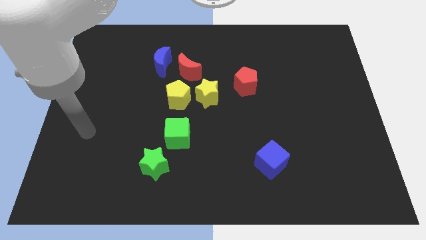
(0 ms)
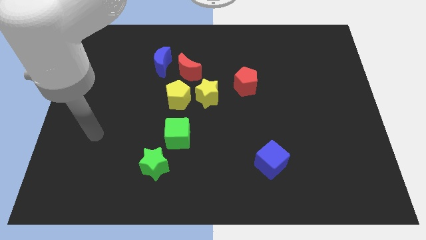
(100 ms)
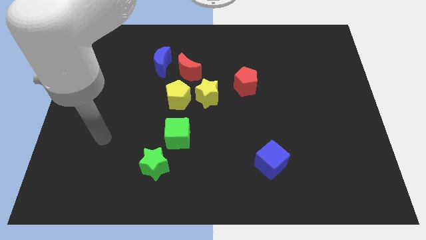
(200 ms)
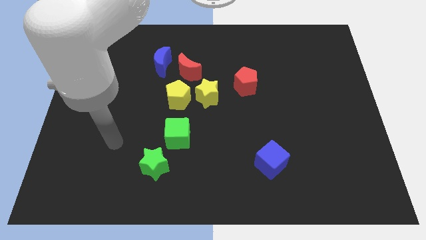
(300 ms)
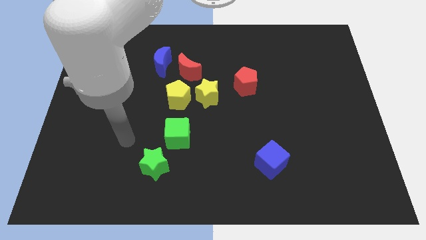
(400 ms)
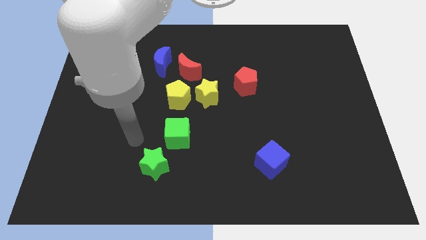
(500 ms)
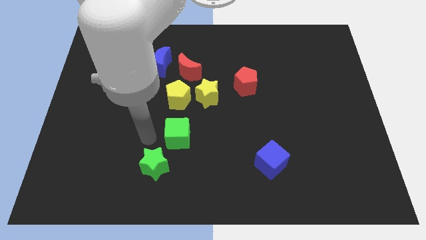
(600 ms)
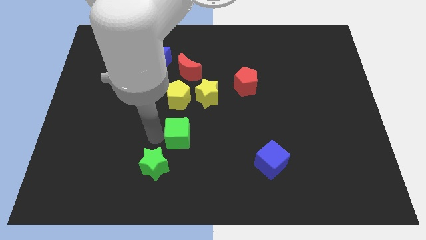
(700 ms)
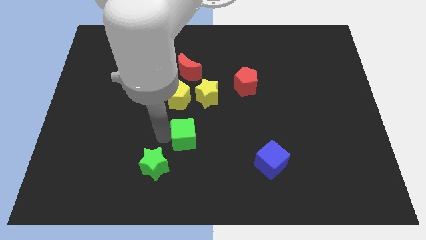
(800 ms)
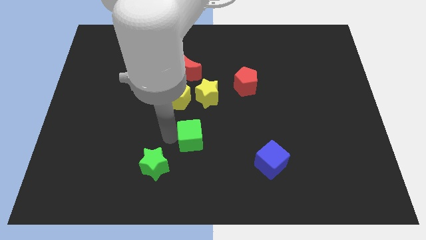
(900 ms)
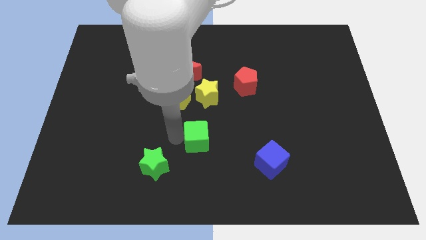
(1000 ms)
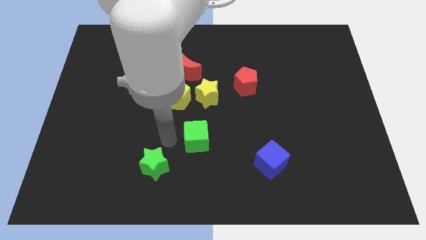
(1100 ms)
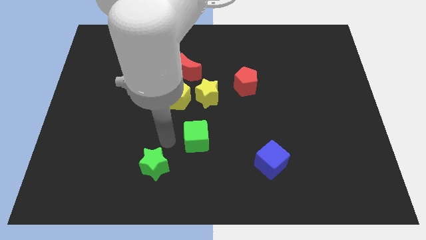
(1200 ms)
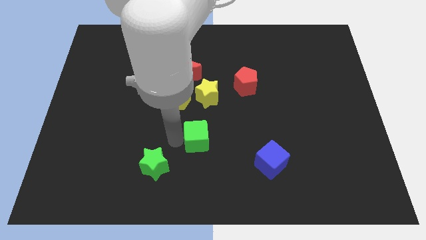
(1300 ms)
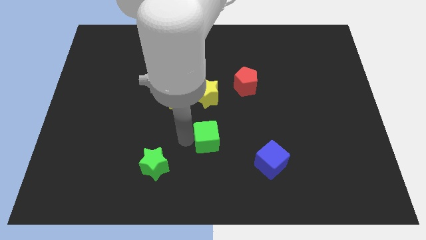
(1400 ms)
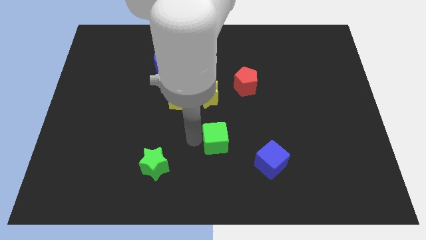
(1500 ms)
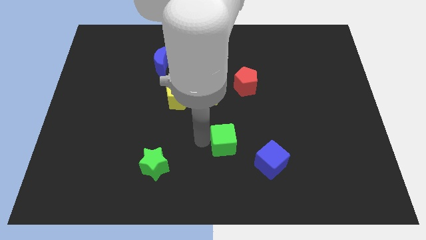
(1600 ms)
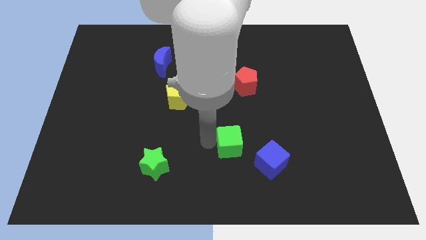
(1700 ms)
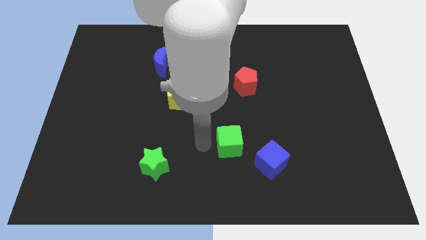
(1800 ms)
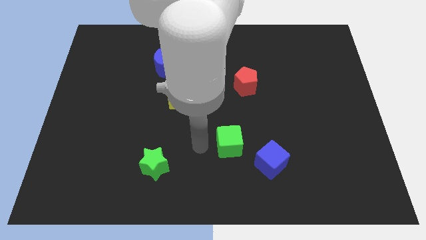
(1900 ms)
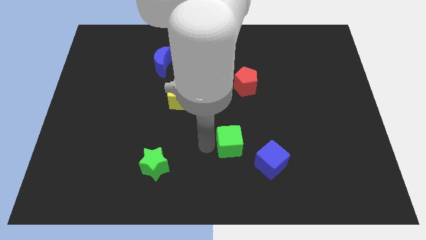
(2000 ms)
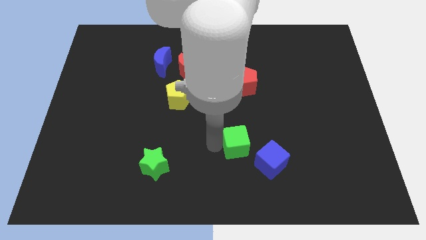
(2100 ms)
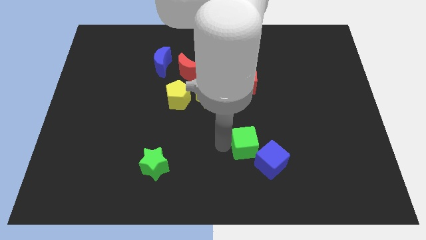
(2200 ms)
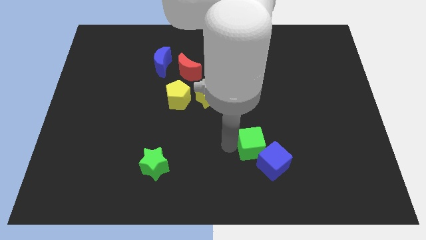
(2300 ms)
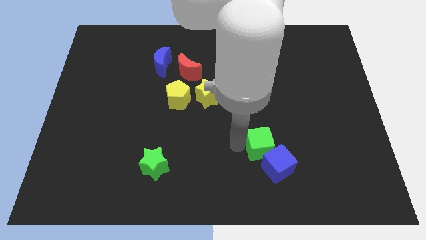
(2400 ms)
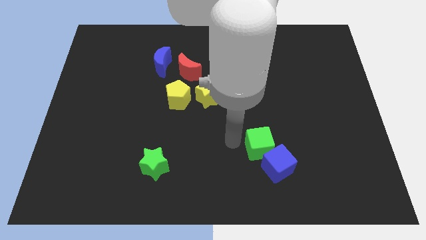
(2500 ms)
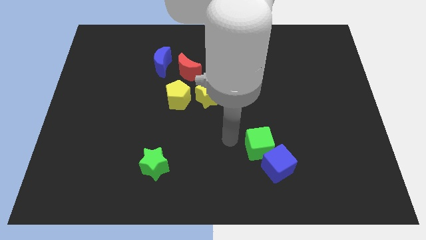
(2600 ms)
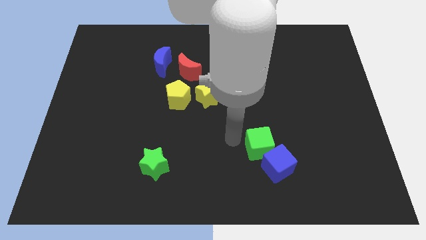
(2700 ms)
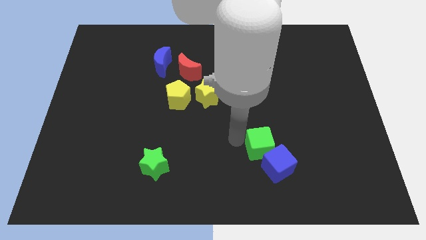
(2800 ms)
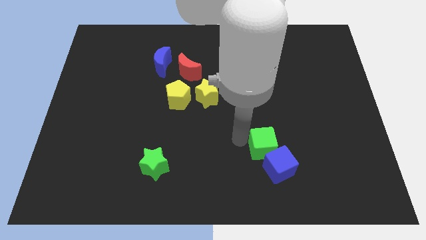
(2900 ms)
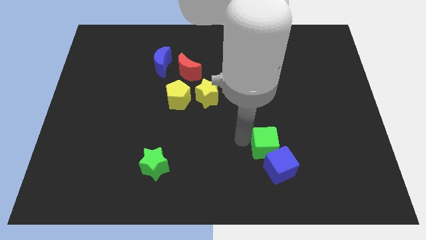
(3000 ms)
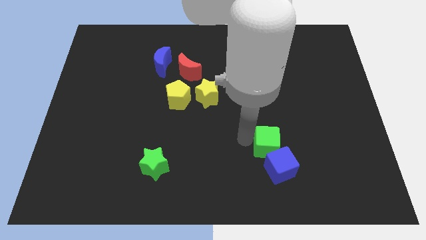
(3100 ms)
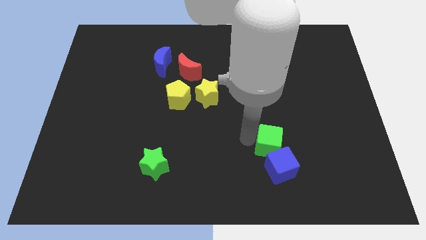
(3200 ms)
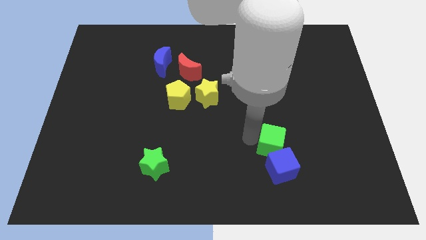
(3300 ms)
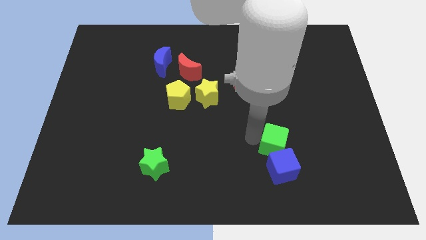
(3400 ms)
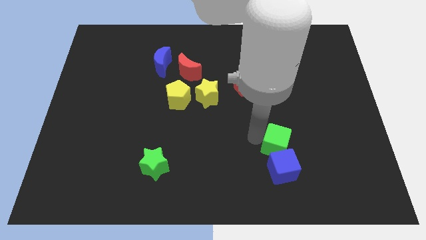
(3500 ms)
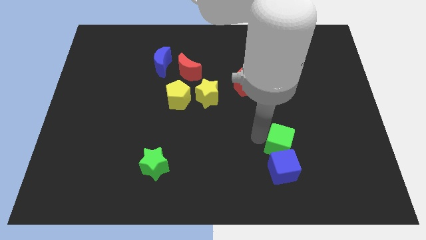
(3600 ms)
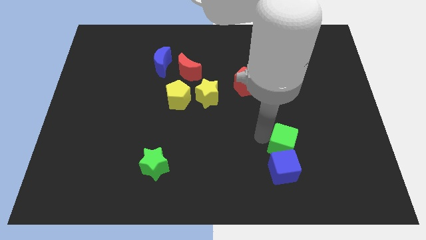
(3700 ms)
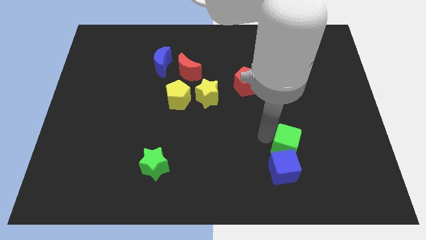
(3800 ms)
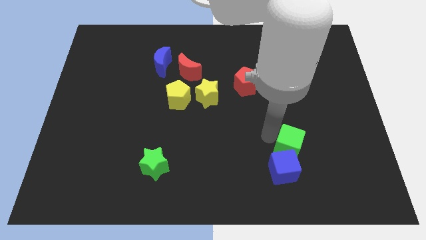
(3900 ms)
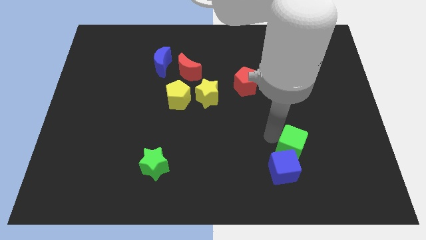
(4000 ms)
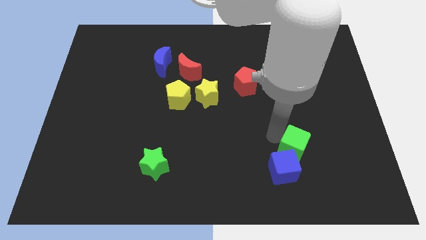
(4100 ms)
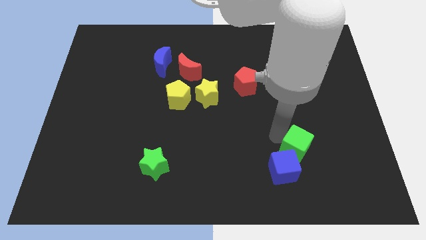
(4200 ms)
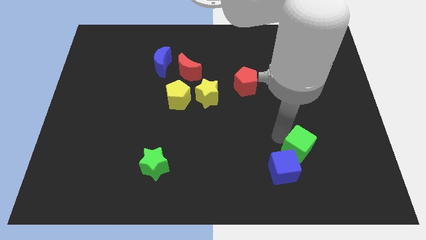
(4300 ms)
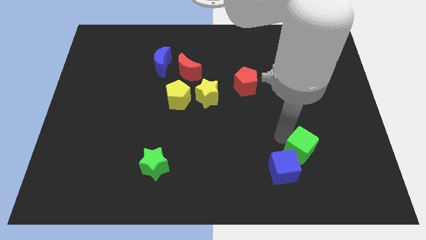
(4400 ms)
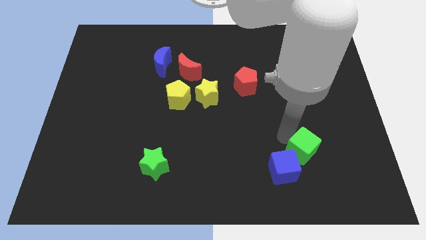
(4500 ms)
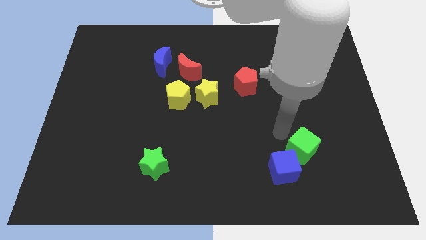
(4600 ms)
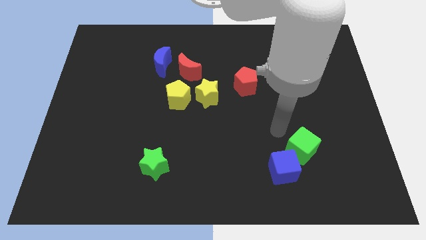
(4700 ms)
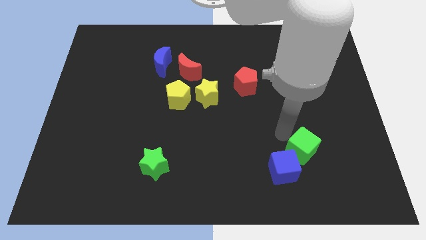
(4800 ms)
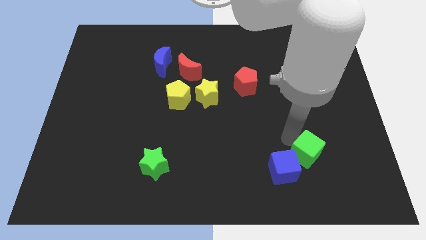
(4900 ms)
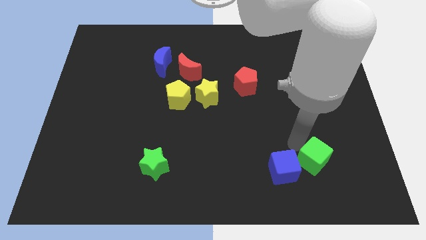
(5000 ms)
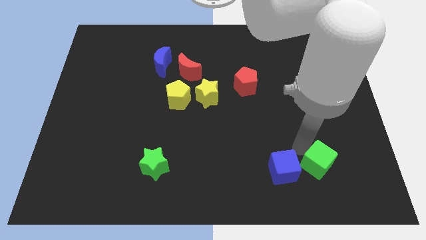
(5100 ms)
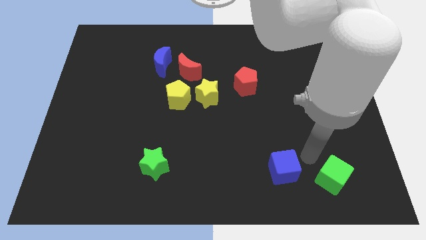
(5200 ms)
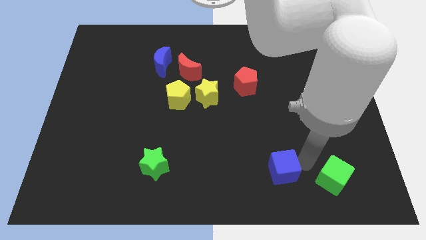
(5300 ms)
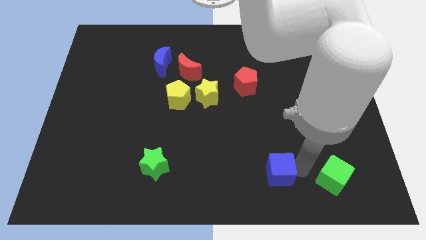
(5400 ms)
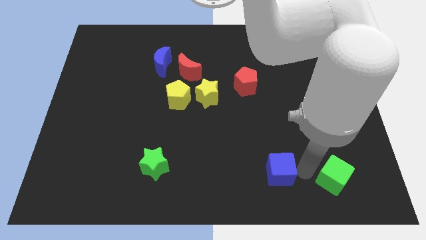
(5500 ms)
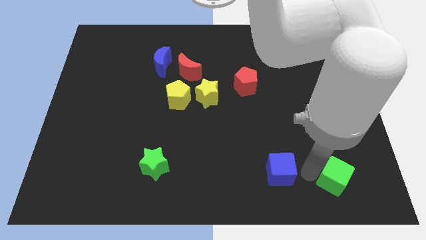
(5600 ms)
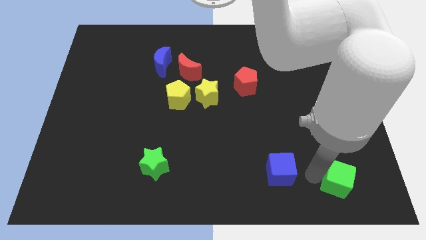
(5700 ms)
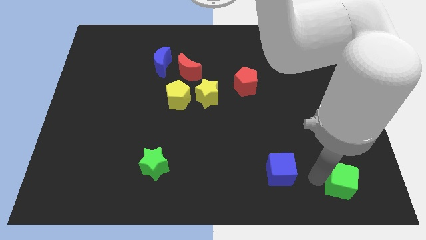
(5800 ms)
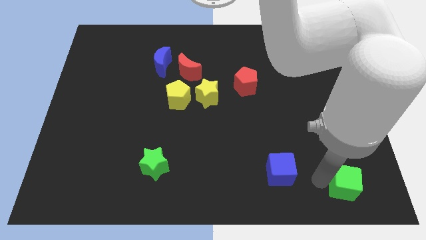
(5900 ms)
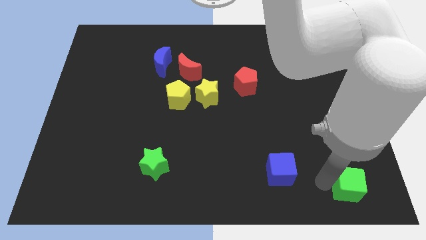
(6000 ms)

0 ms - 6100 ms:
put the green cube to the bottom right corner

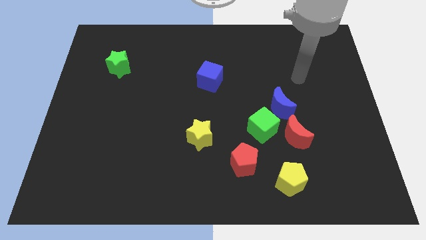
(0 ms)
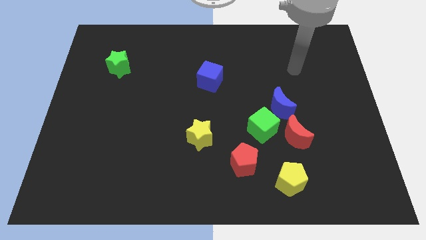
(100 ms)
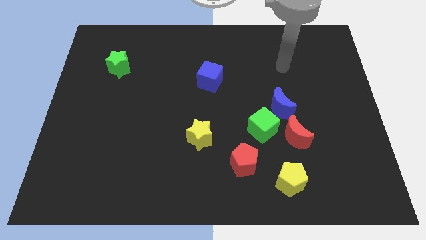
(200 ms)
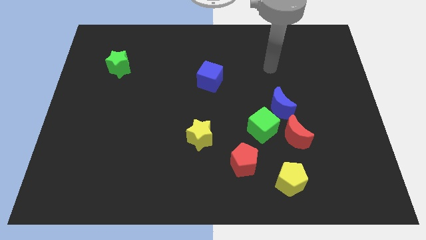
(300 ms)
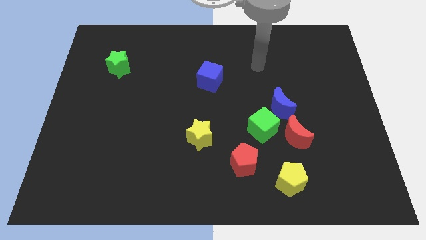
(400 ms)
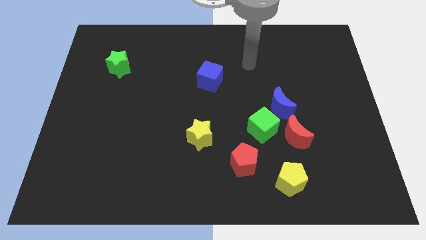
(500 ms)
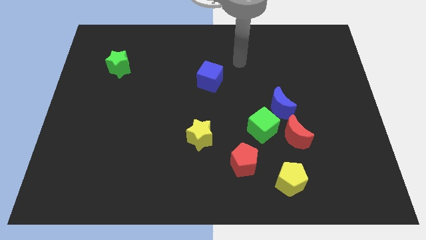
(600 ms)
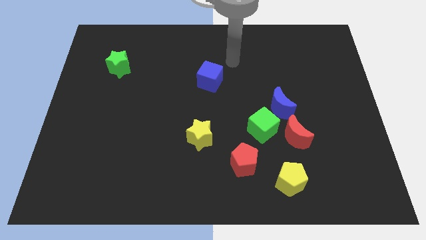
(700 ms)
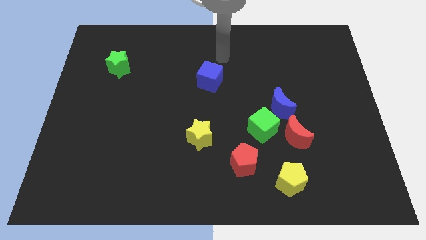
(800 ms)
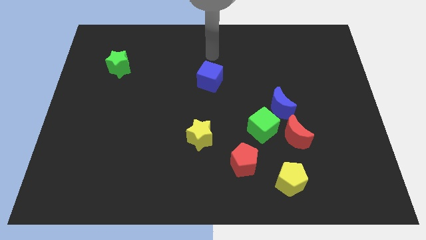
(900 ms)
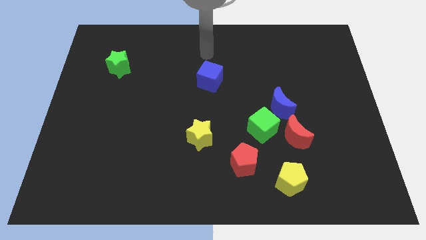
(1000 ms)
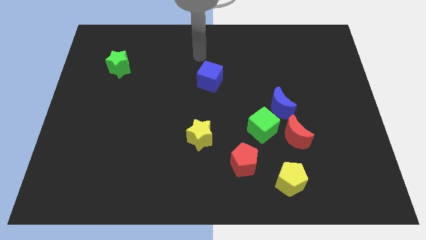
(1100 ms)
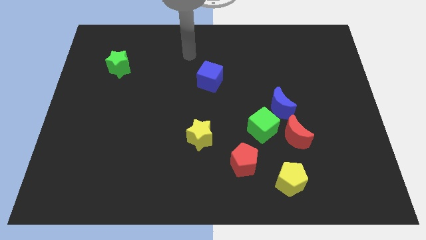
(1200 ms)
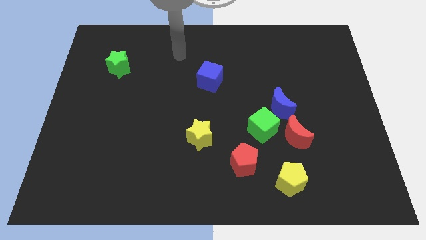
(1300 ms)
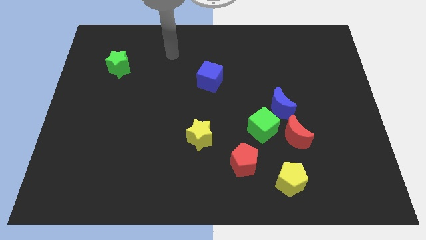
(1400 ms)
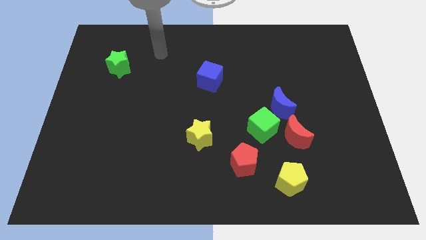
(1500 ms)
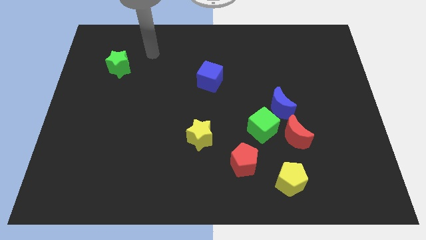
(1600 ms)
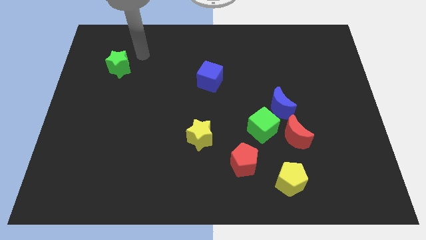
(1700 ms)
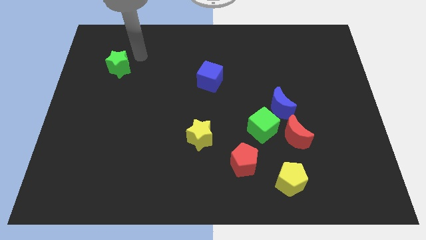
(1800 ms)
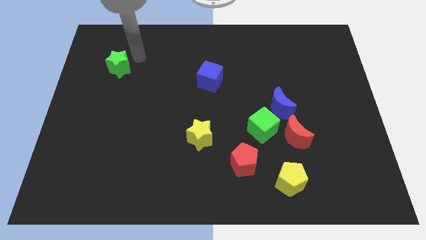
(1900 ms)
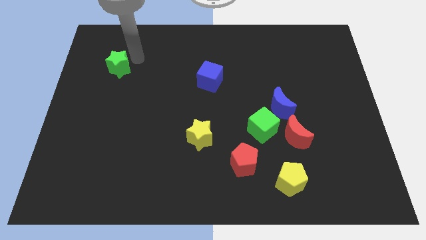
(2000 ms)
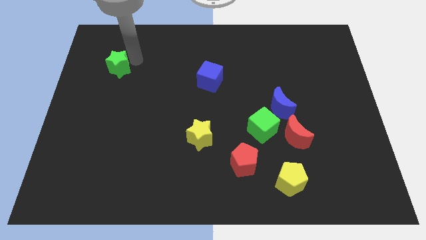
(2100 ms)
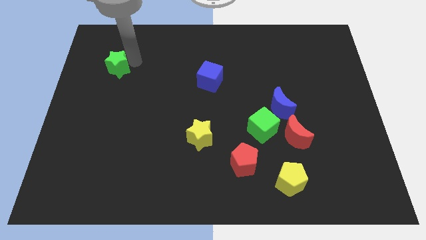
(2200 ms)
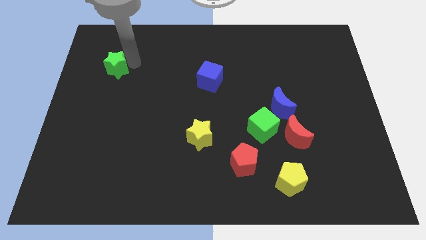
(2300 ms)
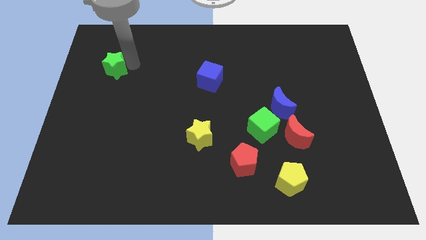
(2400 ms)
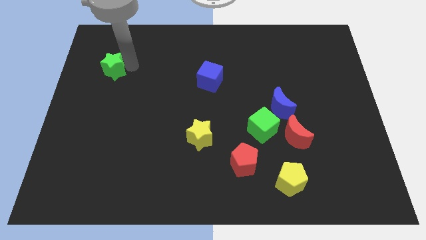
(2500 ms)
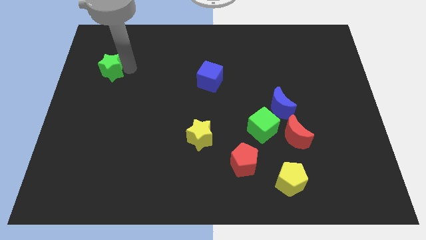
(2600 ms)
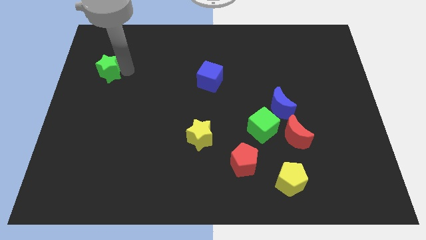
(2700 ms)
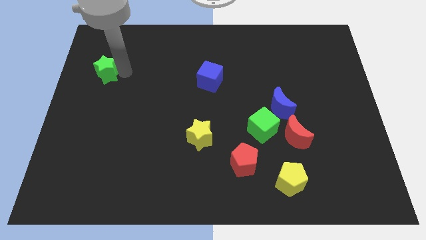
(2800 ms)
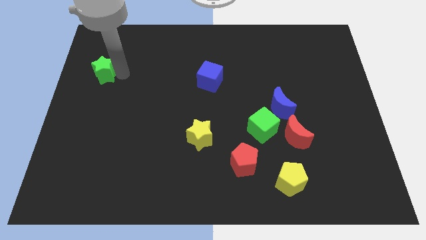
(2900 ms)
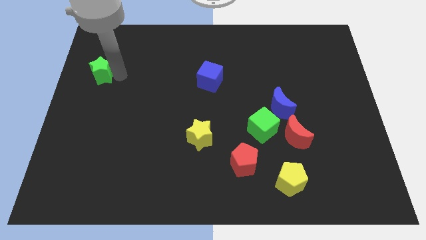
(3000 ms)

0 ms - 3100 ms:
slide the green star to the left side
